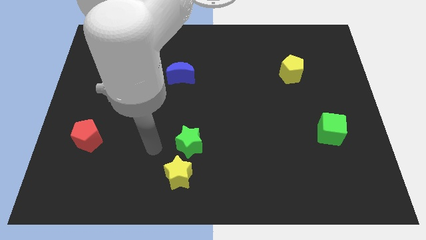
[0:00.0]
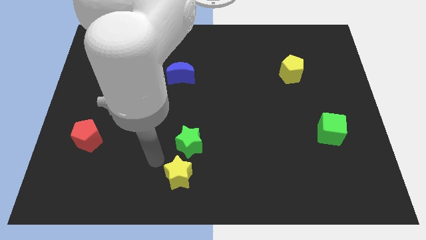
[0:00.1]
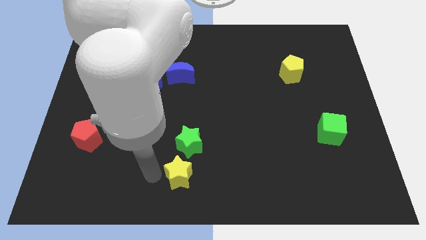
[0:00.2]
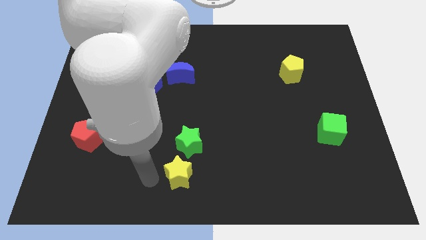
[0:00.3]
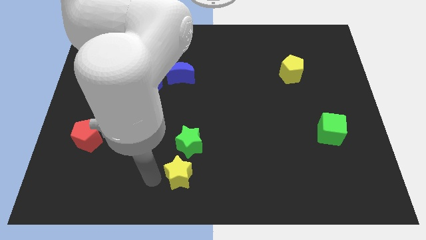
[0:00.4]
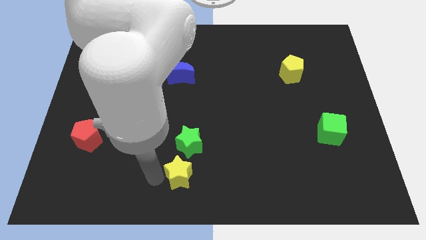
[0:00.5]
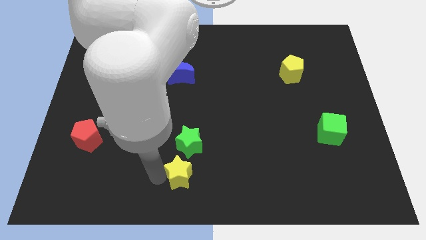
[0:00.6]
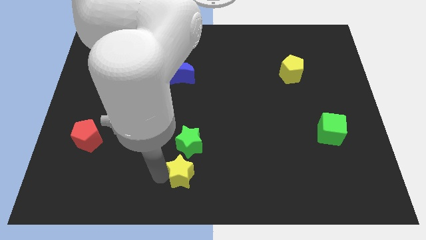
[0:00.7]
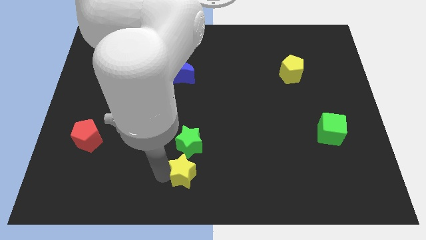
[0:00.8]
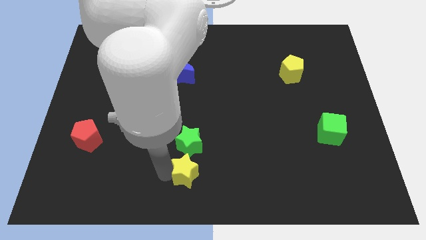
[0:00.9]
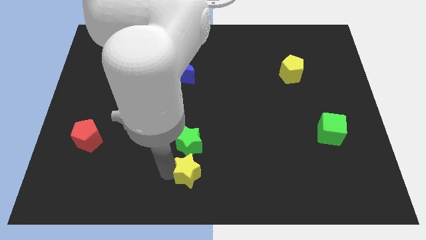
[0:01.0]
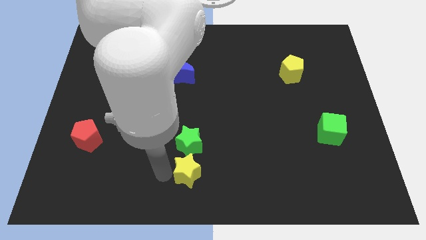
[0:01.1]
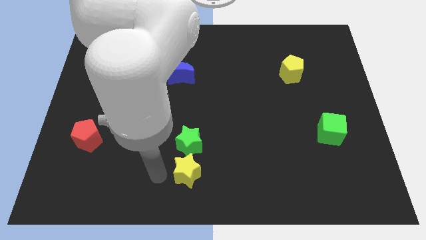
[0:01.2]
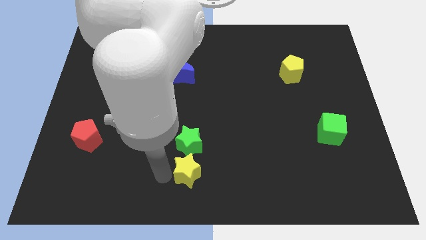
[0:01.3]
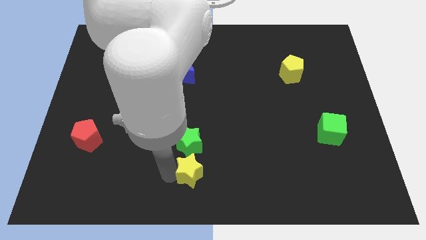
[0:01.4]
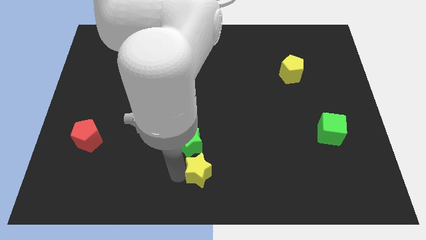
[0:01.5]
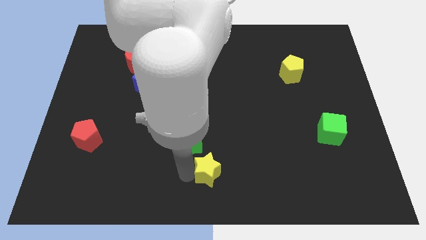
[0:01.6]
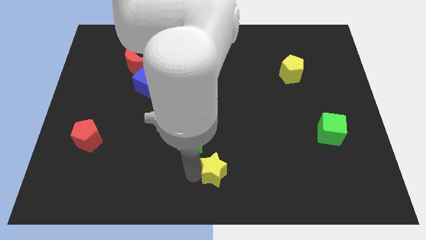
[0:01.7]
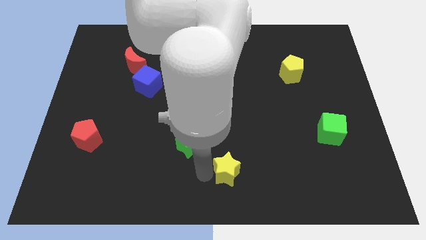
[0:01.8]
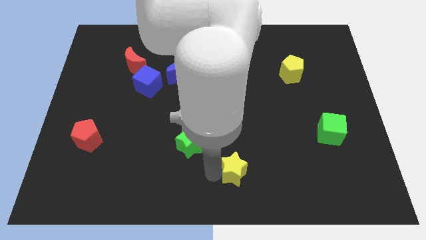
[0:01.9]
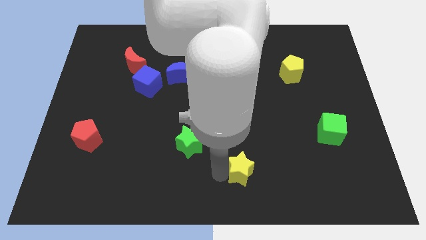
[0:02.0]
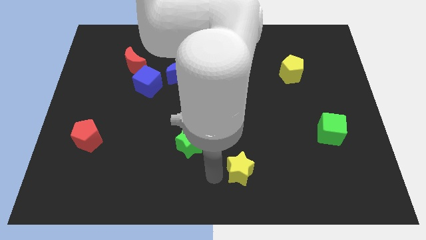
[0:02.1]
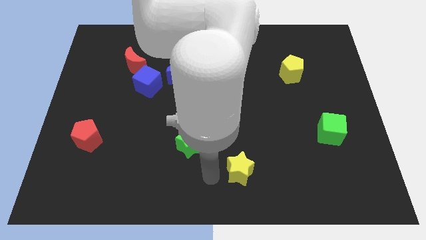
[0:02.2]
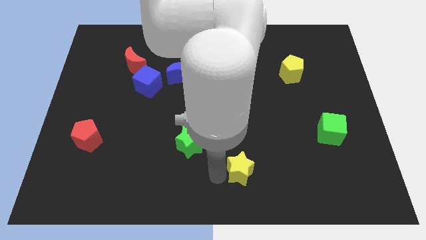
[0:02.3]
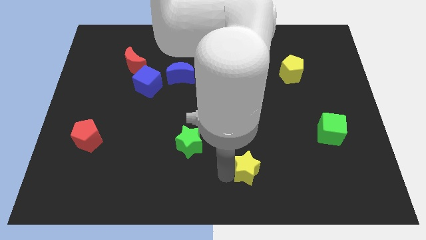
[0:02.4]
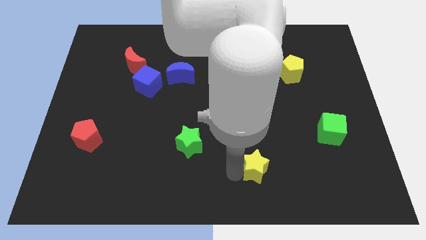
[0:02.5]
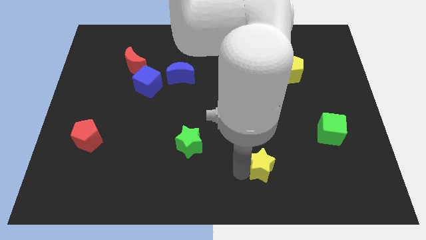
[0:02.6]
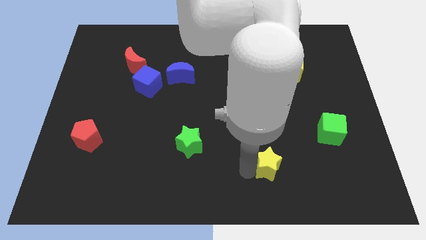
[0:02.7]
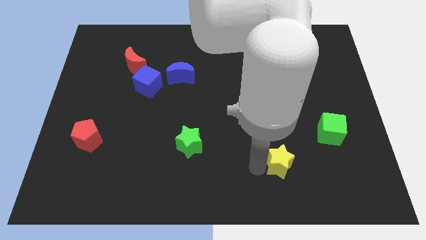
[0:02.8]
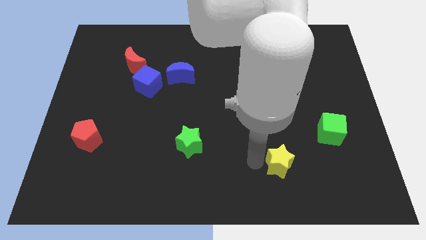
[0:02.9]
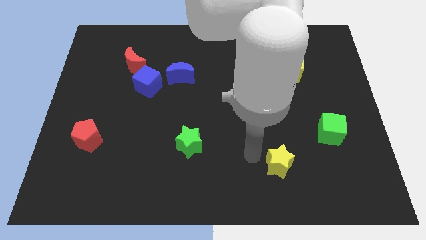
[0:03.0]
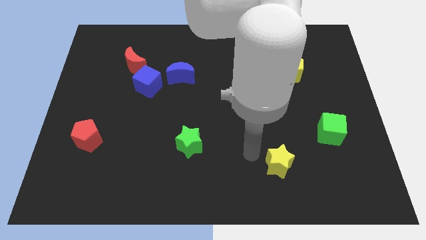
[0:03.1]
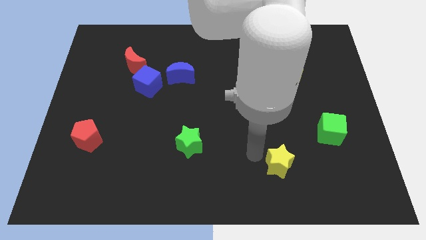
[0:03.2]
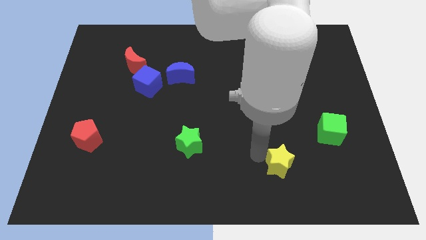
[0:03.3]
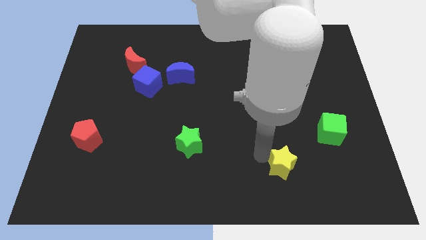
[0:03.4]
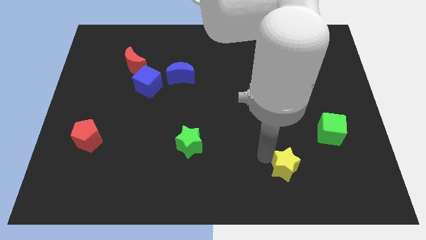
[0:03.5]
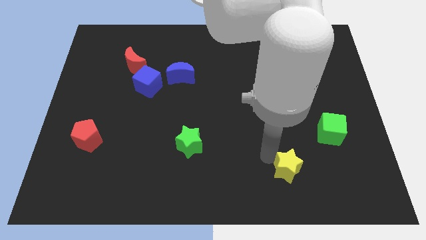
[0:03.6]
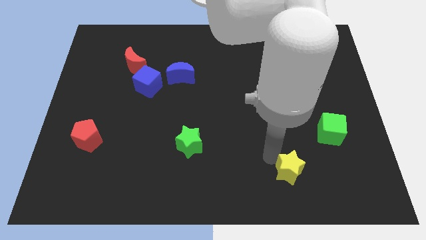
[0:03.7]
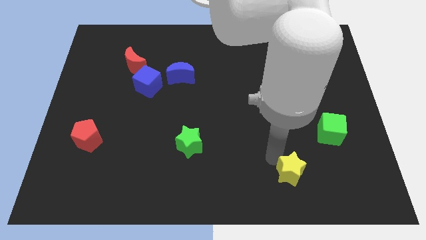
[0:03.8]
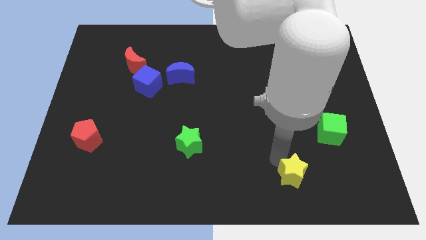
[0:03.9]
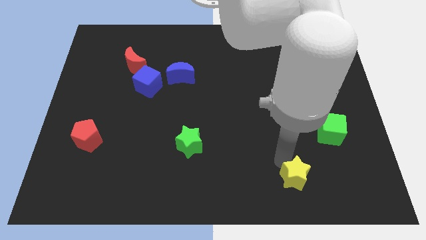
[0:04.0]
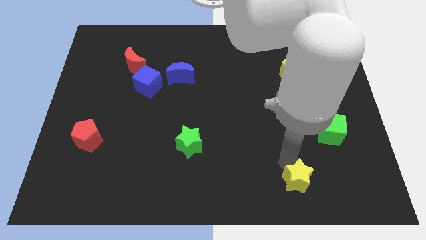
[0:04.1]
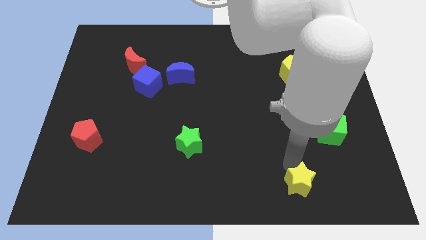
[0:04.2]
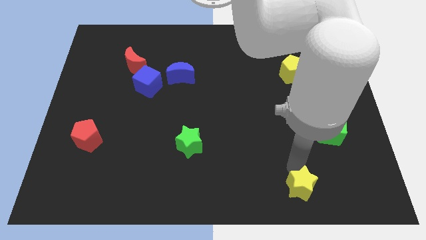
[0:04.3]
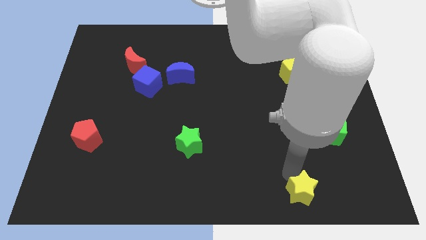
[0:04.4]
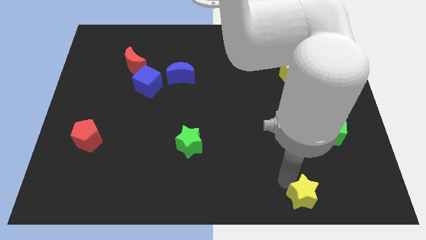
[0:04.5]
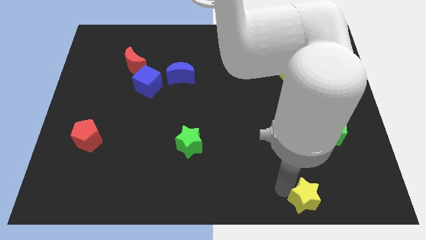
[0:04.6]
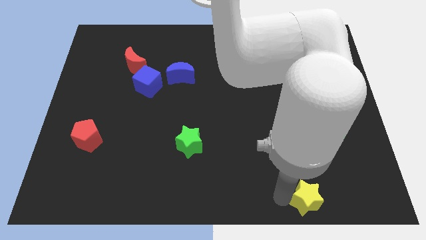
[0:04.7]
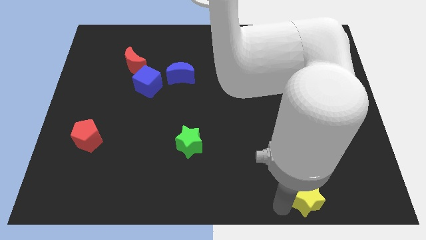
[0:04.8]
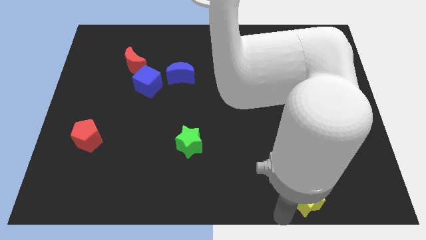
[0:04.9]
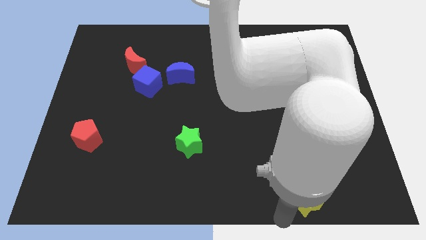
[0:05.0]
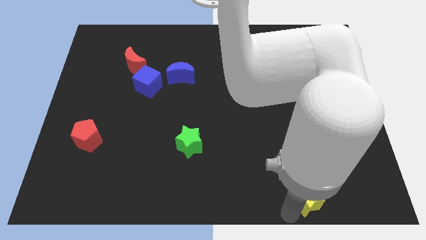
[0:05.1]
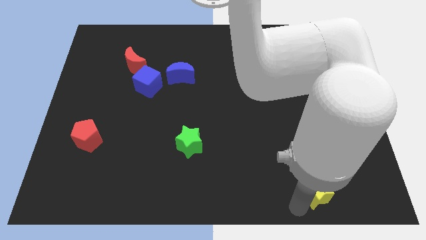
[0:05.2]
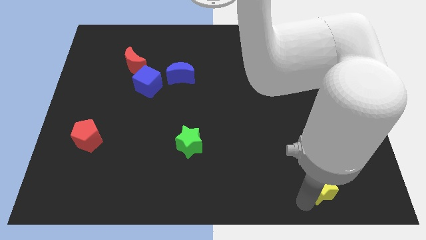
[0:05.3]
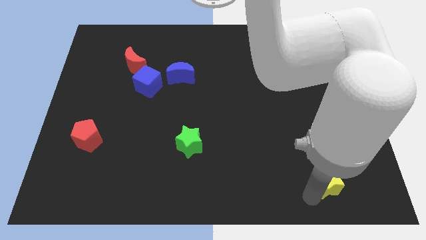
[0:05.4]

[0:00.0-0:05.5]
push the yellow star to the bottom of the green cube

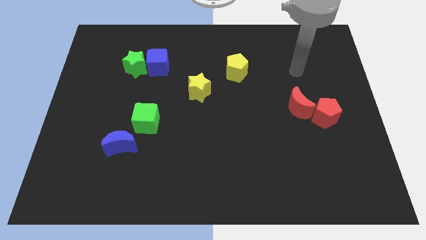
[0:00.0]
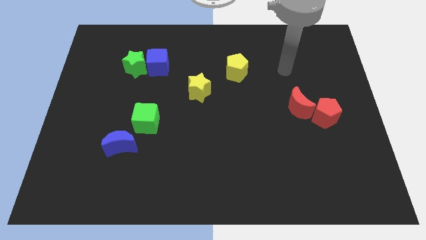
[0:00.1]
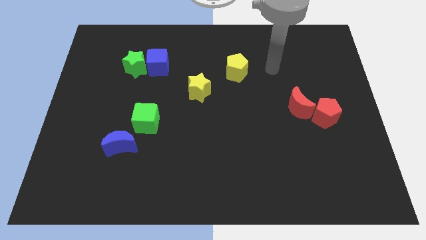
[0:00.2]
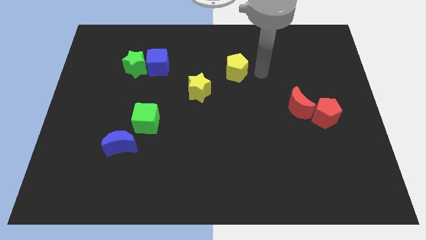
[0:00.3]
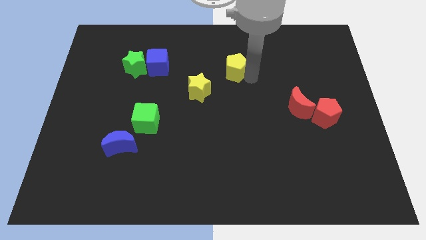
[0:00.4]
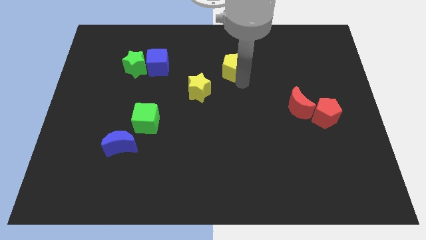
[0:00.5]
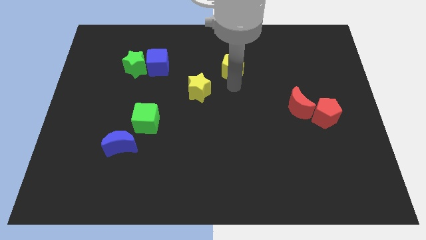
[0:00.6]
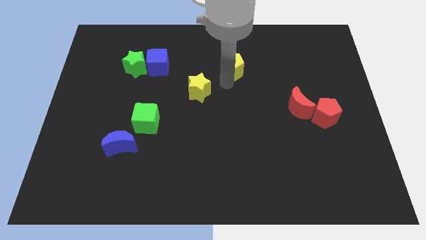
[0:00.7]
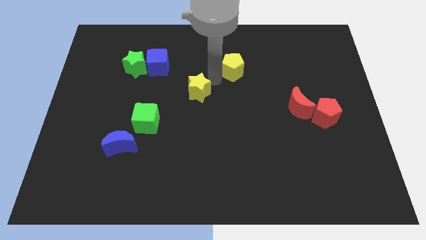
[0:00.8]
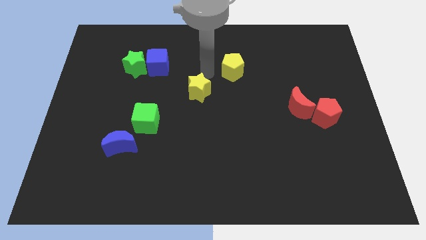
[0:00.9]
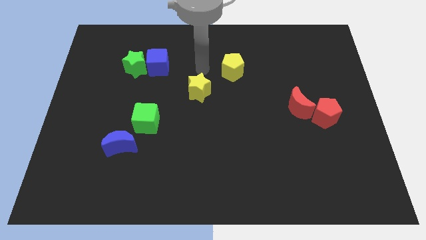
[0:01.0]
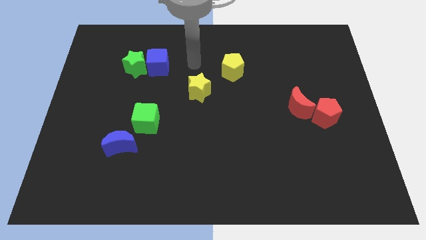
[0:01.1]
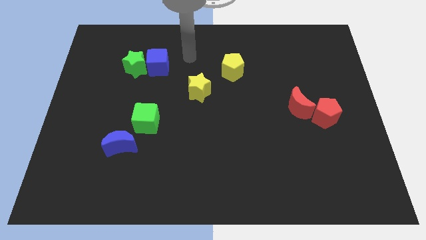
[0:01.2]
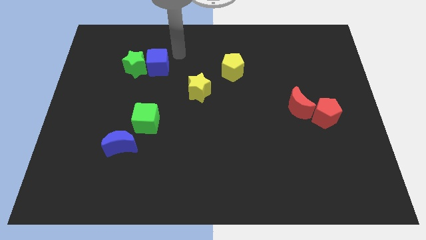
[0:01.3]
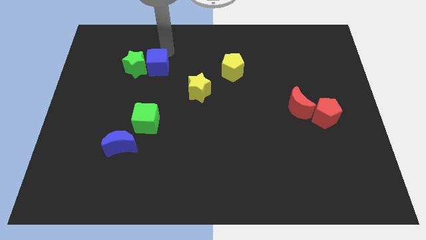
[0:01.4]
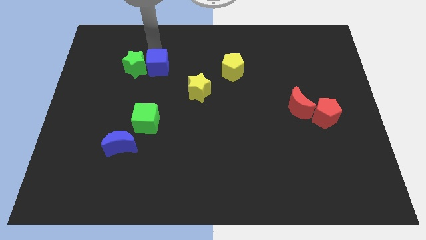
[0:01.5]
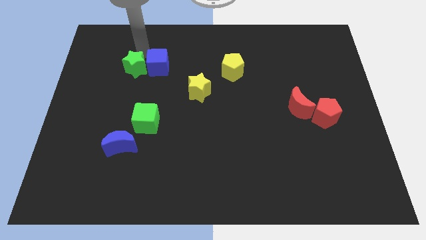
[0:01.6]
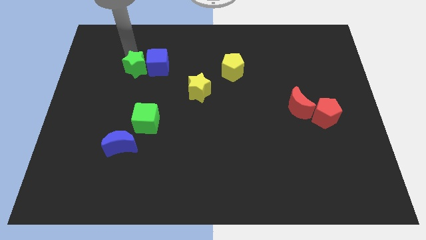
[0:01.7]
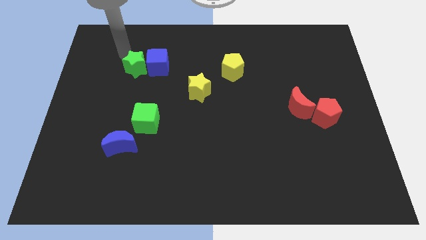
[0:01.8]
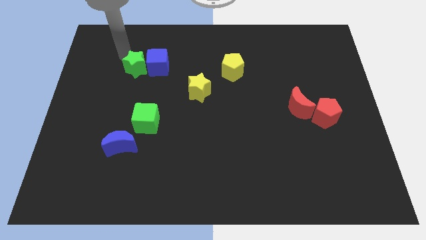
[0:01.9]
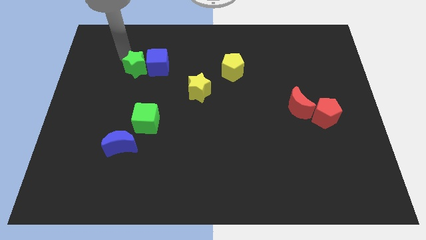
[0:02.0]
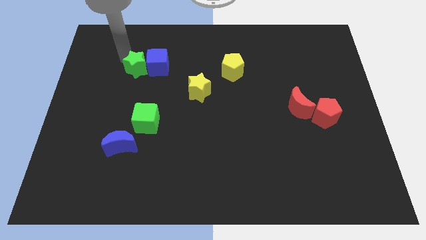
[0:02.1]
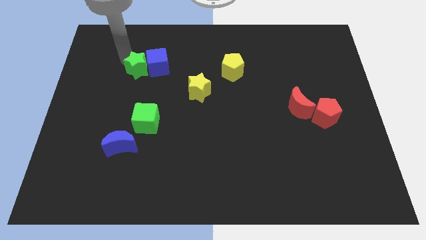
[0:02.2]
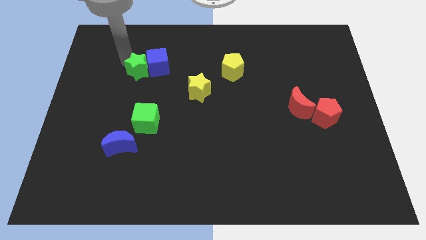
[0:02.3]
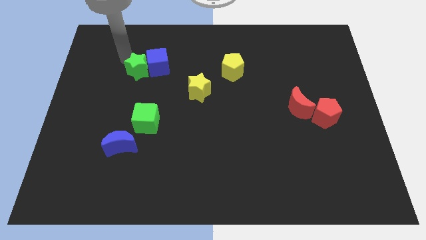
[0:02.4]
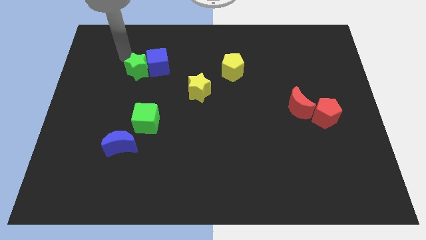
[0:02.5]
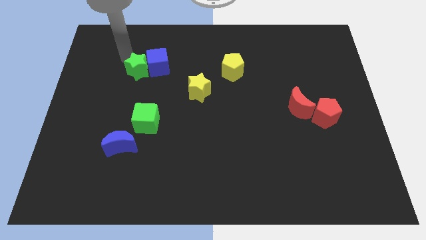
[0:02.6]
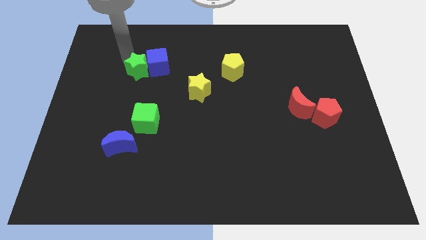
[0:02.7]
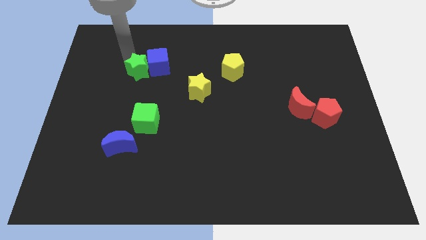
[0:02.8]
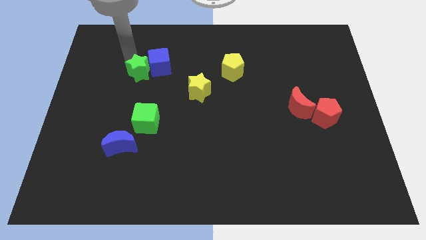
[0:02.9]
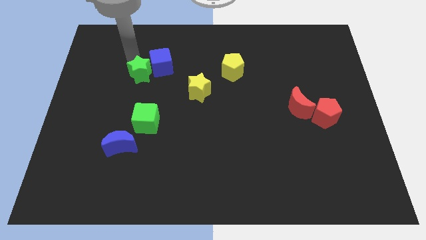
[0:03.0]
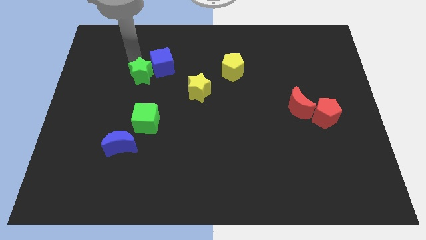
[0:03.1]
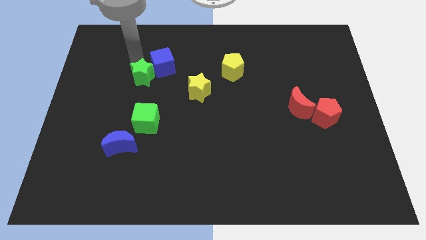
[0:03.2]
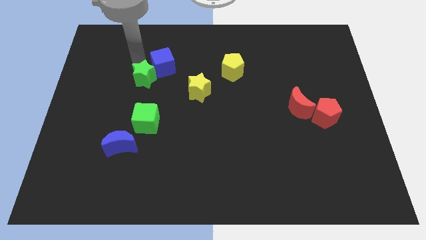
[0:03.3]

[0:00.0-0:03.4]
move the green star left of the yellow star
